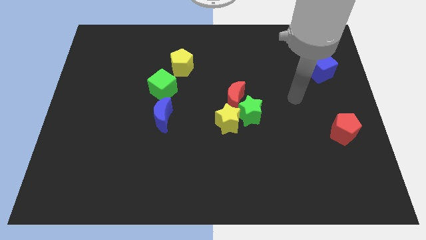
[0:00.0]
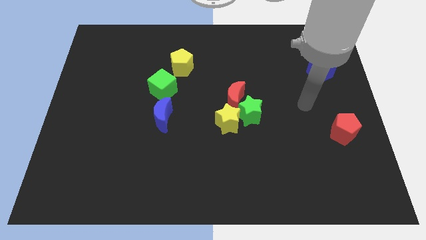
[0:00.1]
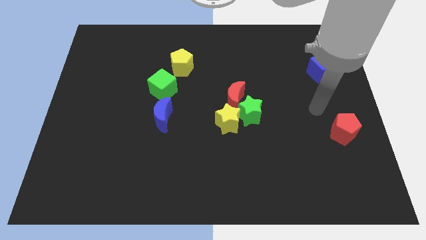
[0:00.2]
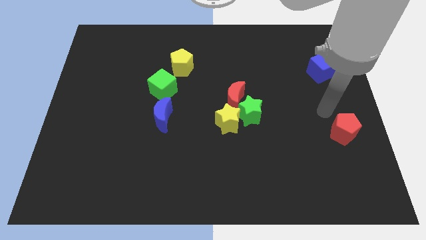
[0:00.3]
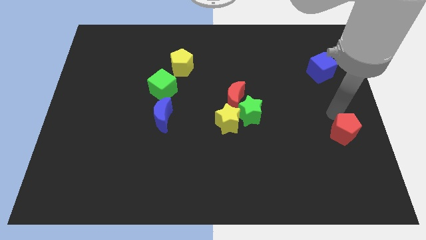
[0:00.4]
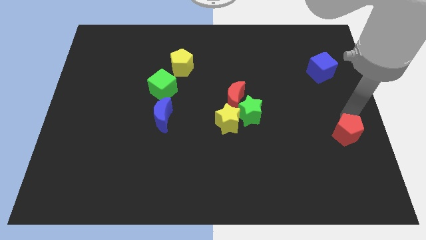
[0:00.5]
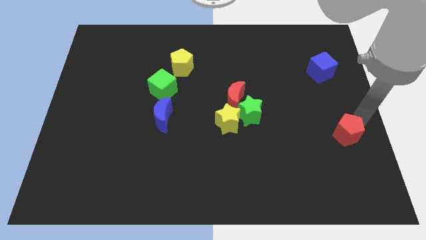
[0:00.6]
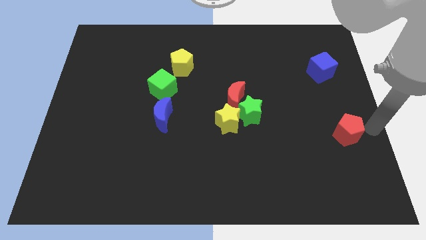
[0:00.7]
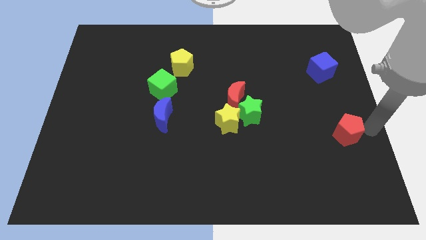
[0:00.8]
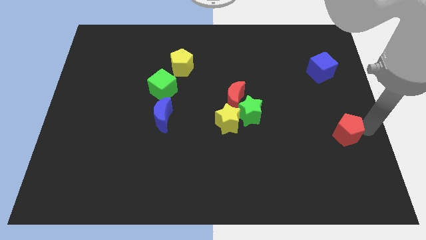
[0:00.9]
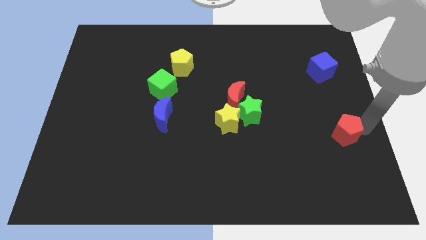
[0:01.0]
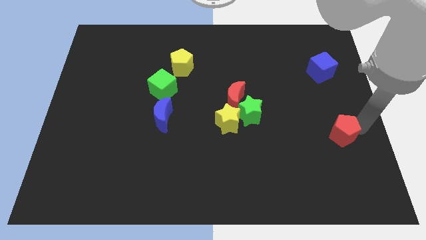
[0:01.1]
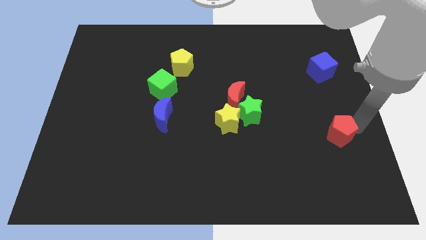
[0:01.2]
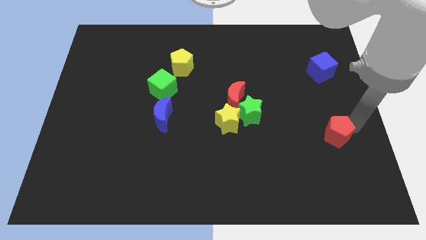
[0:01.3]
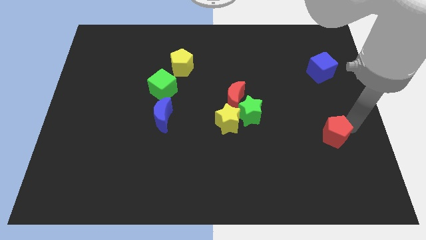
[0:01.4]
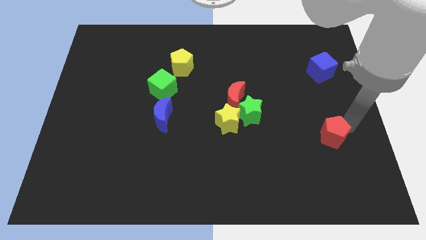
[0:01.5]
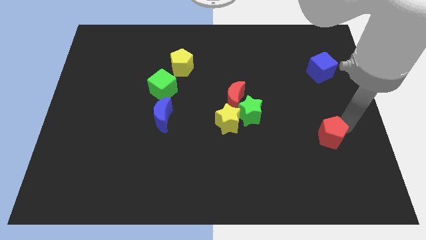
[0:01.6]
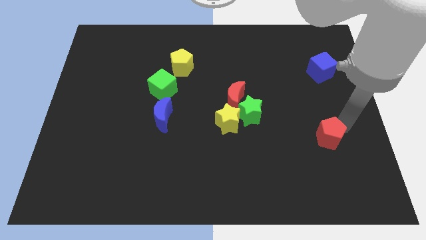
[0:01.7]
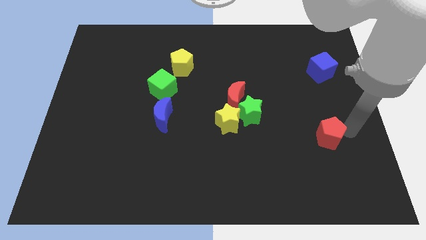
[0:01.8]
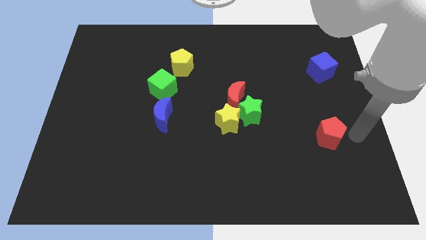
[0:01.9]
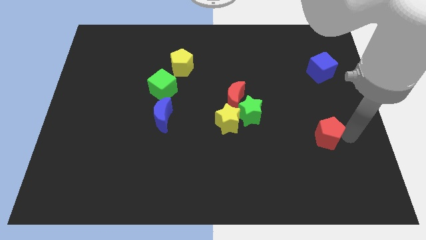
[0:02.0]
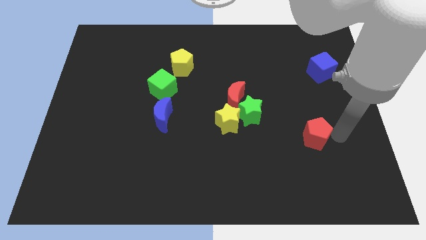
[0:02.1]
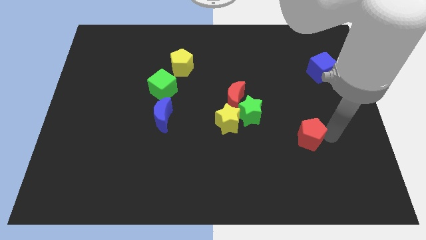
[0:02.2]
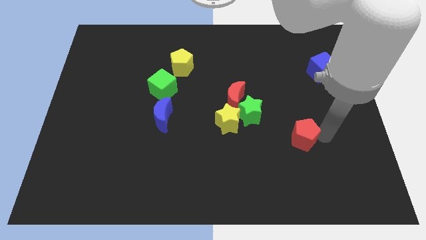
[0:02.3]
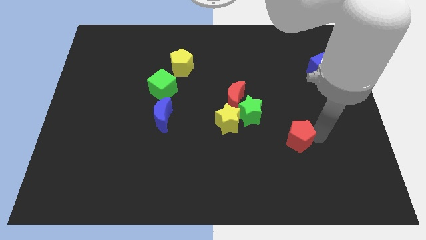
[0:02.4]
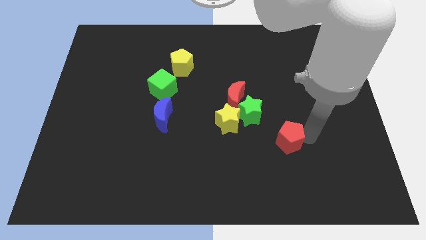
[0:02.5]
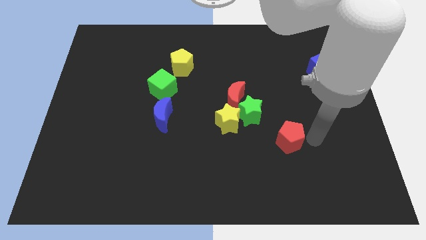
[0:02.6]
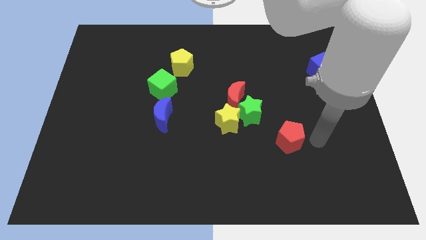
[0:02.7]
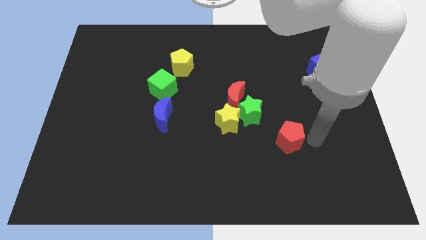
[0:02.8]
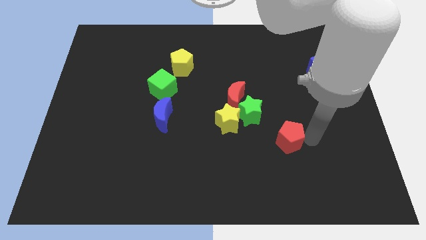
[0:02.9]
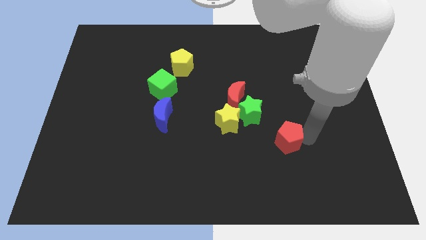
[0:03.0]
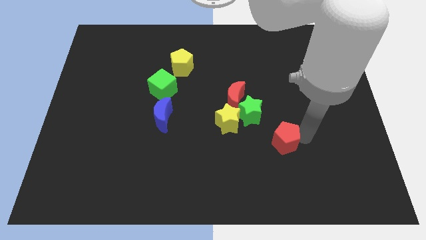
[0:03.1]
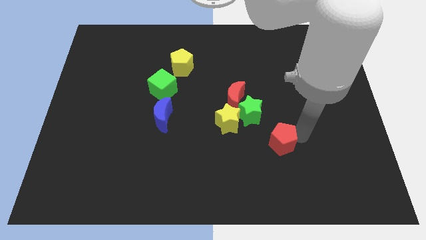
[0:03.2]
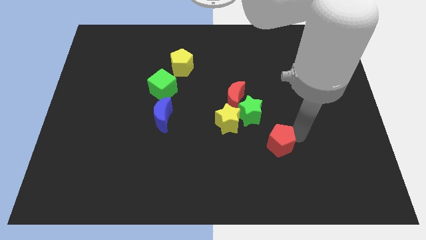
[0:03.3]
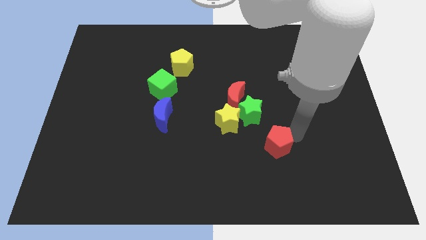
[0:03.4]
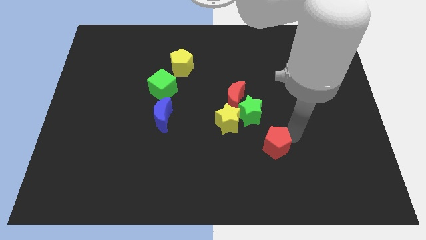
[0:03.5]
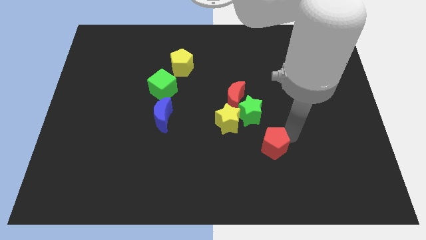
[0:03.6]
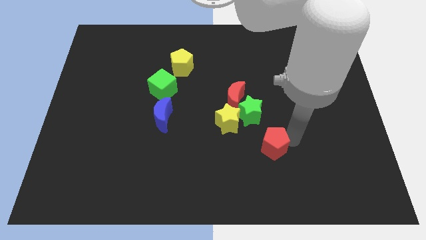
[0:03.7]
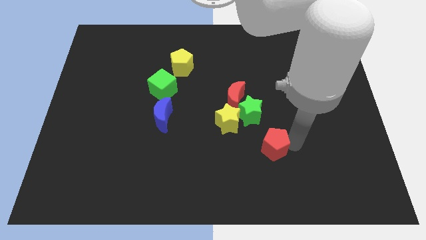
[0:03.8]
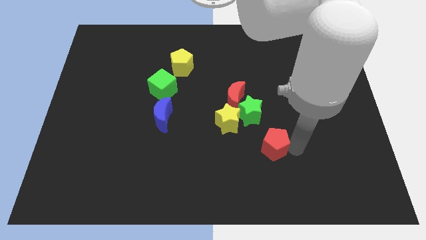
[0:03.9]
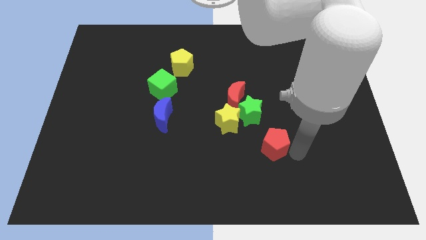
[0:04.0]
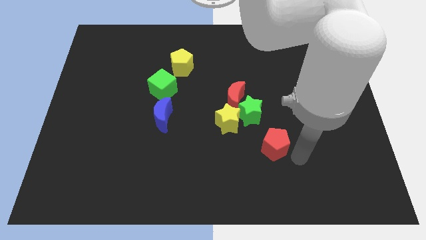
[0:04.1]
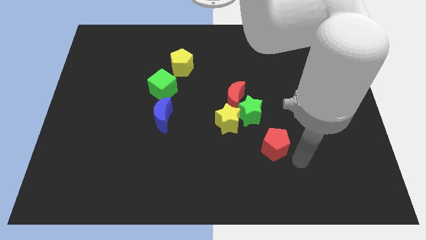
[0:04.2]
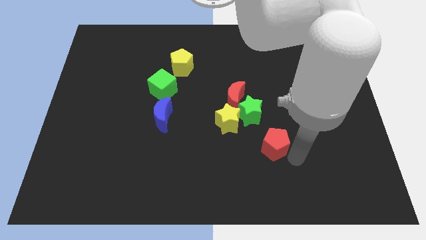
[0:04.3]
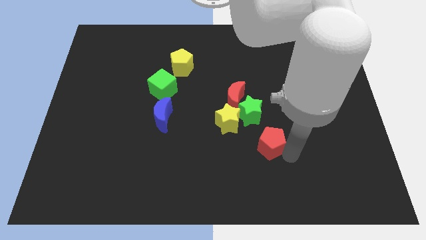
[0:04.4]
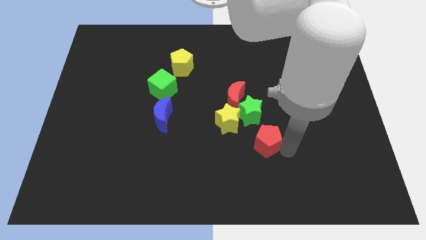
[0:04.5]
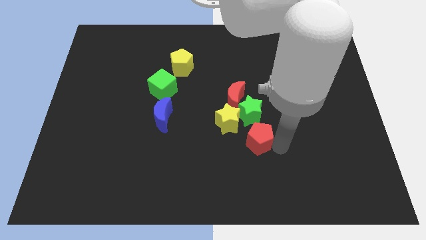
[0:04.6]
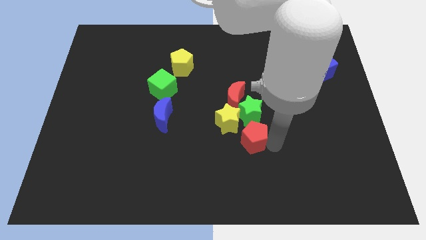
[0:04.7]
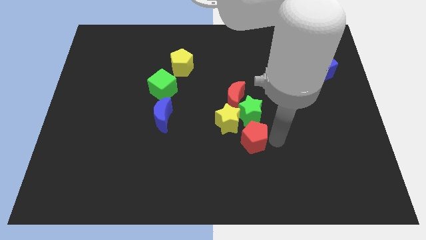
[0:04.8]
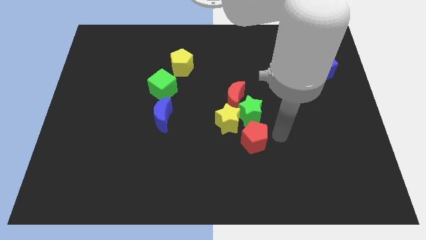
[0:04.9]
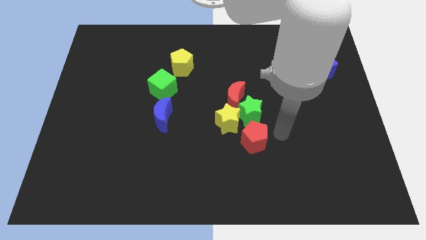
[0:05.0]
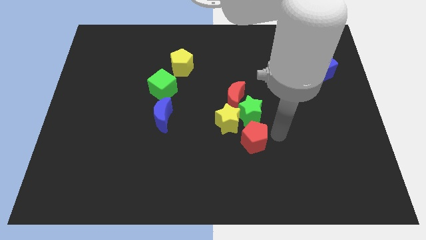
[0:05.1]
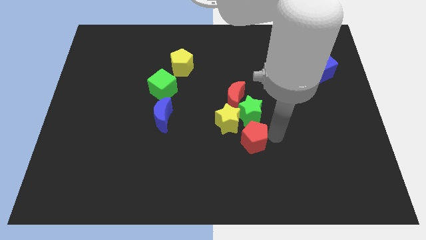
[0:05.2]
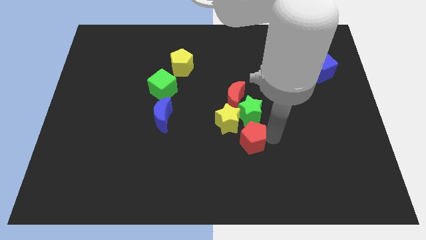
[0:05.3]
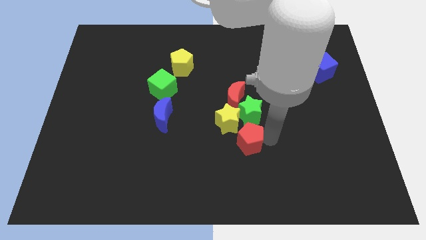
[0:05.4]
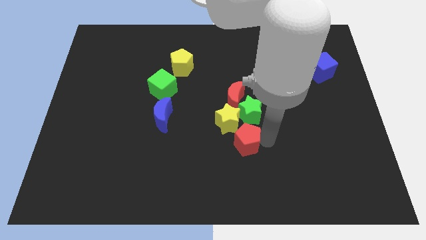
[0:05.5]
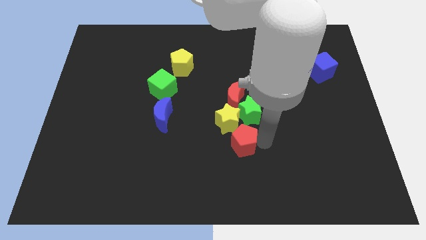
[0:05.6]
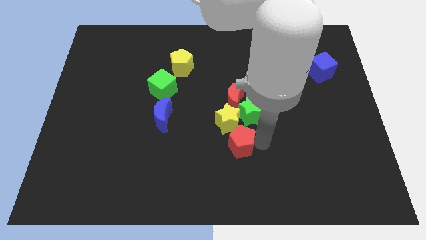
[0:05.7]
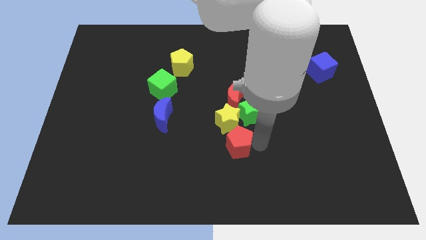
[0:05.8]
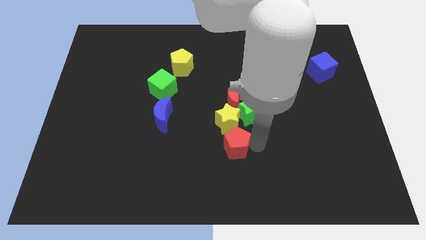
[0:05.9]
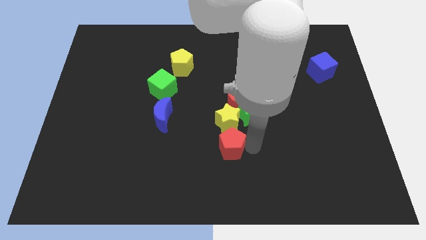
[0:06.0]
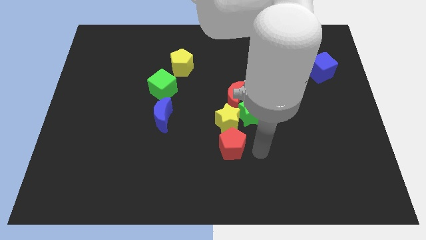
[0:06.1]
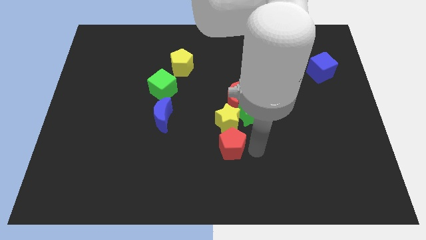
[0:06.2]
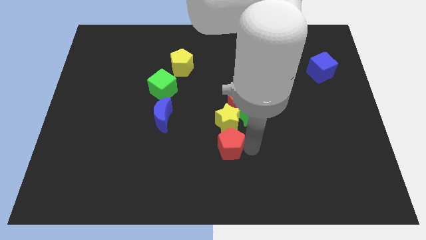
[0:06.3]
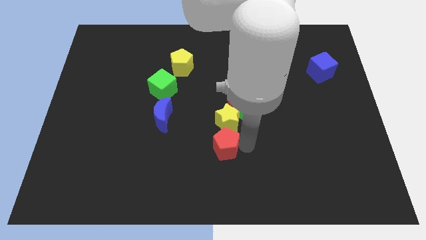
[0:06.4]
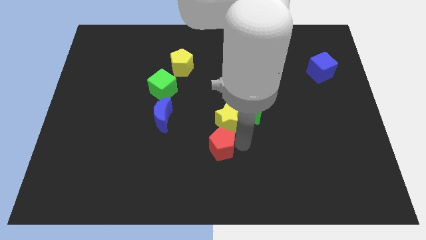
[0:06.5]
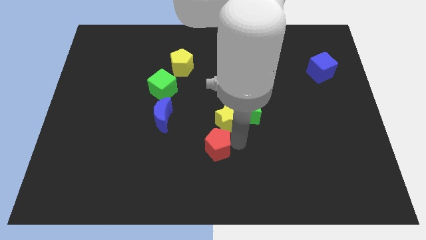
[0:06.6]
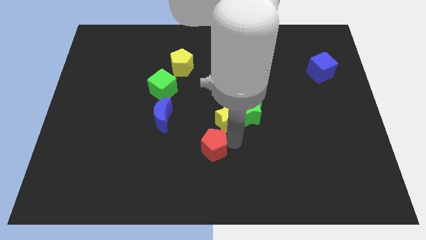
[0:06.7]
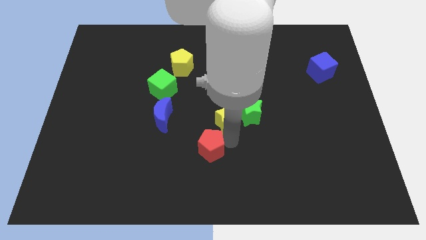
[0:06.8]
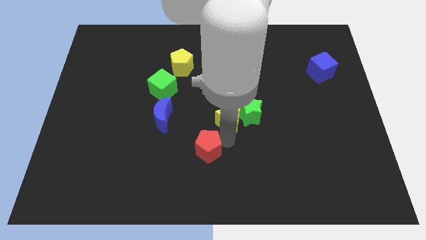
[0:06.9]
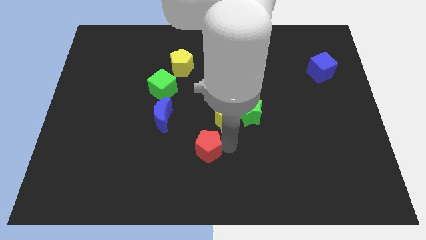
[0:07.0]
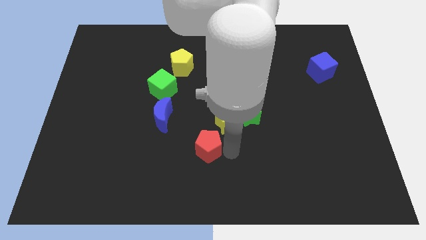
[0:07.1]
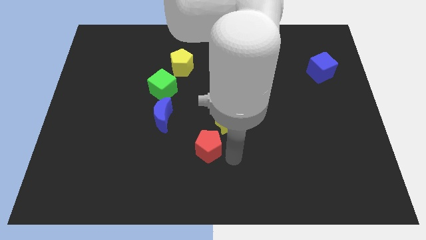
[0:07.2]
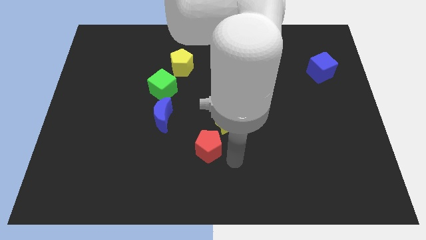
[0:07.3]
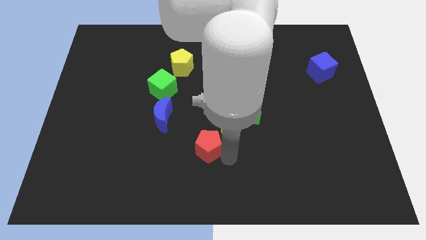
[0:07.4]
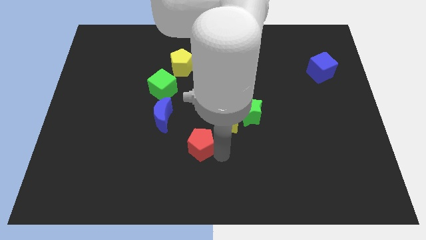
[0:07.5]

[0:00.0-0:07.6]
put the red pentagon to the bottom right of the blue moon
